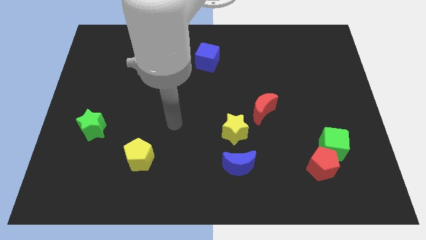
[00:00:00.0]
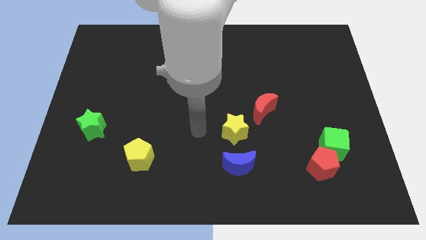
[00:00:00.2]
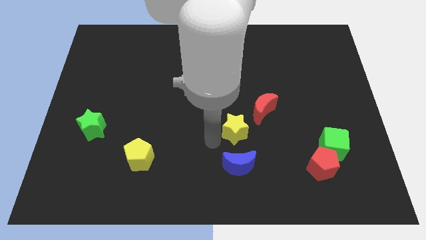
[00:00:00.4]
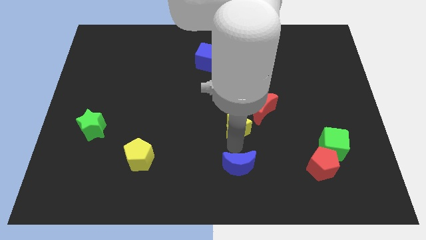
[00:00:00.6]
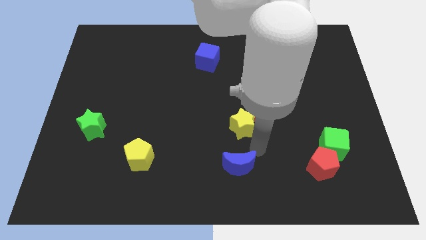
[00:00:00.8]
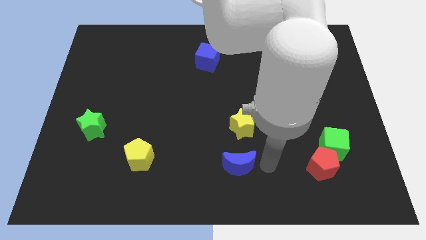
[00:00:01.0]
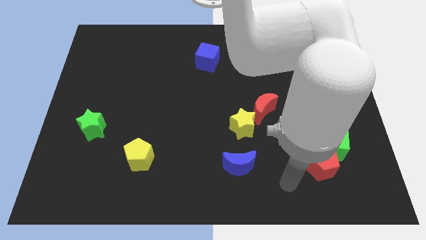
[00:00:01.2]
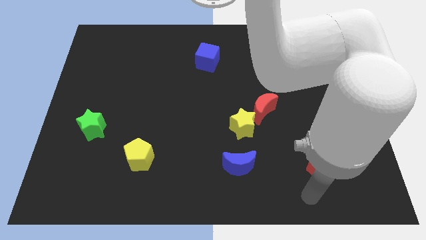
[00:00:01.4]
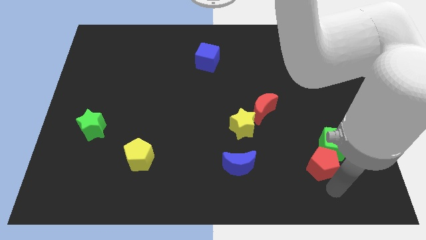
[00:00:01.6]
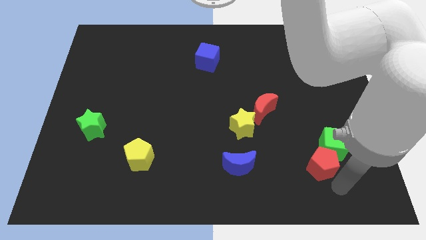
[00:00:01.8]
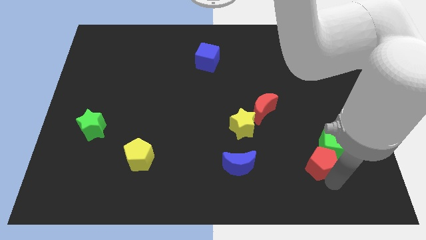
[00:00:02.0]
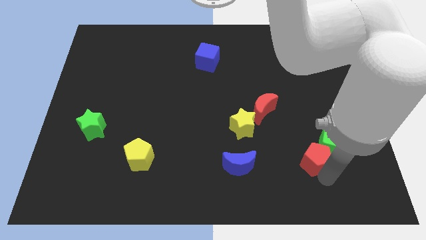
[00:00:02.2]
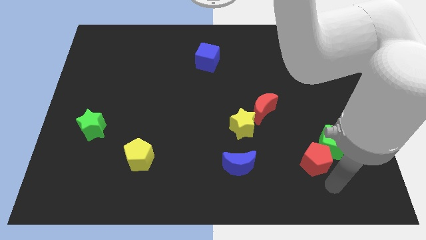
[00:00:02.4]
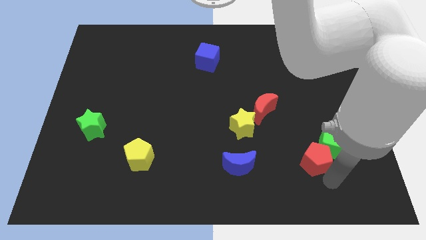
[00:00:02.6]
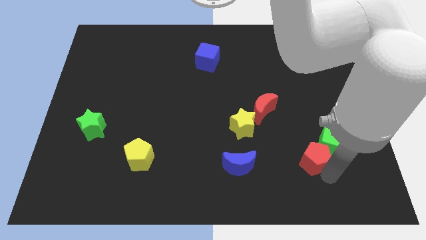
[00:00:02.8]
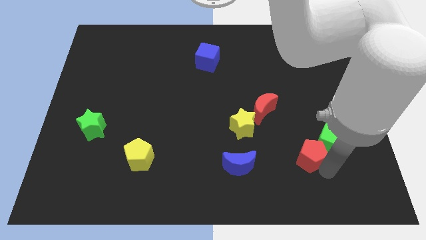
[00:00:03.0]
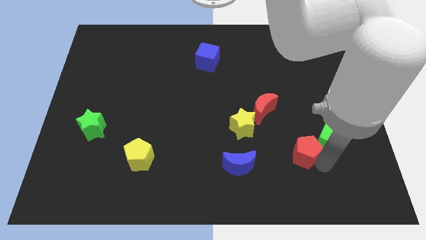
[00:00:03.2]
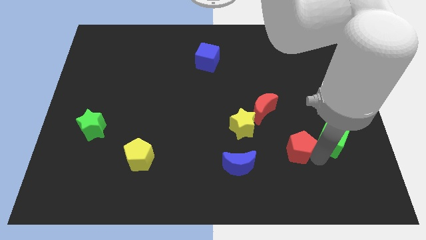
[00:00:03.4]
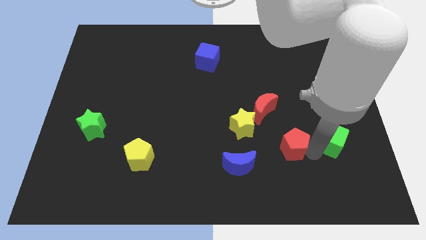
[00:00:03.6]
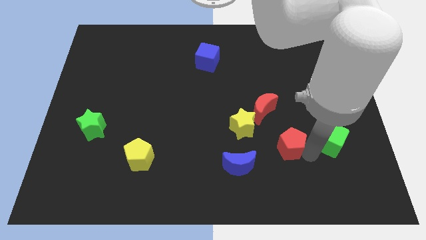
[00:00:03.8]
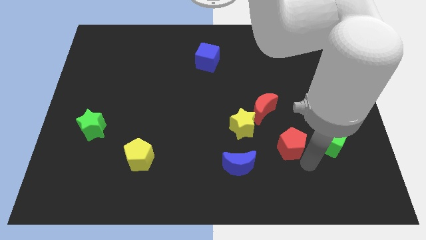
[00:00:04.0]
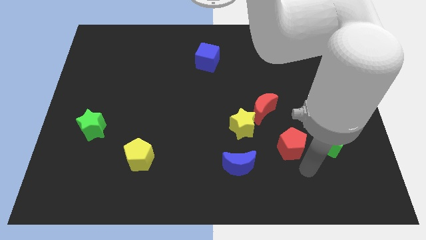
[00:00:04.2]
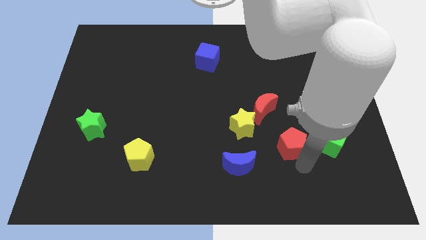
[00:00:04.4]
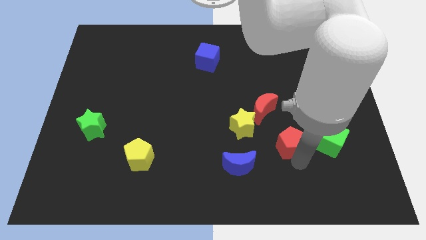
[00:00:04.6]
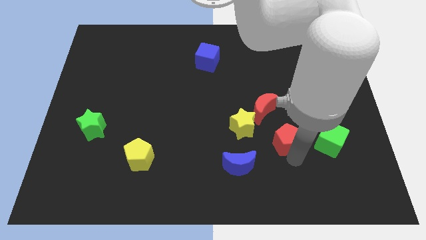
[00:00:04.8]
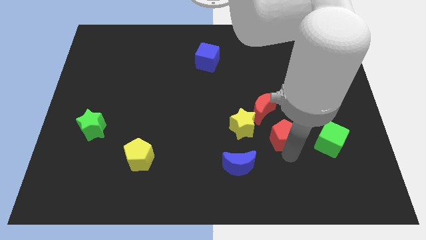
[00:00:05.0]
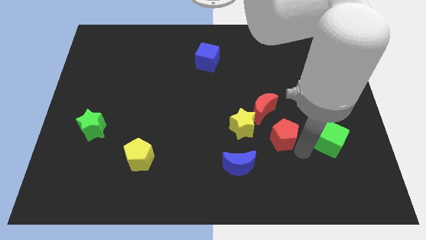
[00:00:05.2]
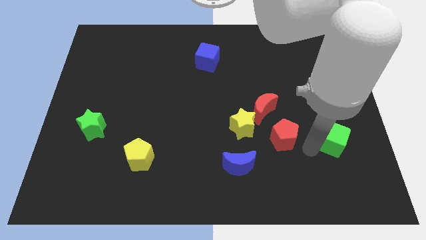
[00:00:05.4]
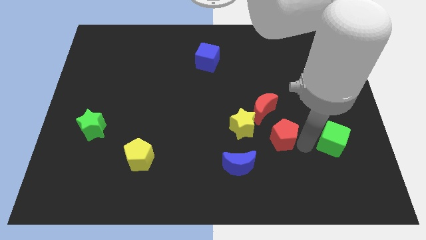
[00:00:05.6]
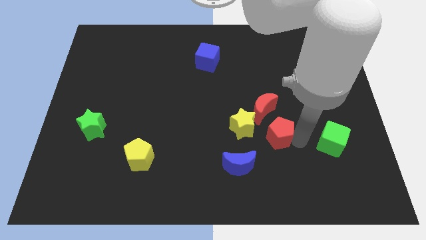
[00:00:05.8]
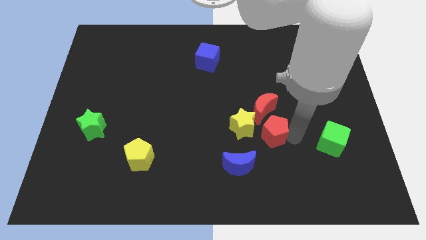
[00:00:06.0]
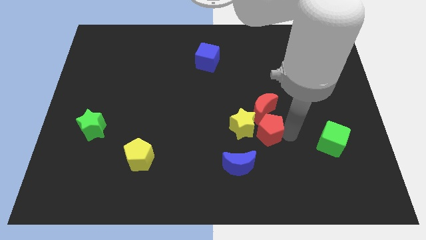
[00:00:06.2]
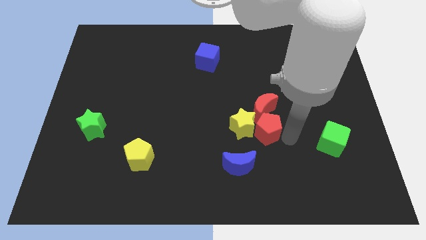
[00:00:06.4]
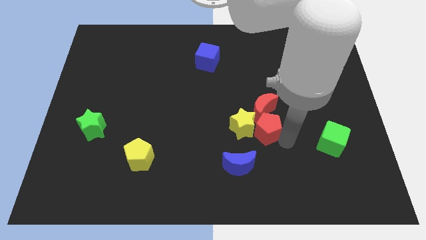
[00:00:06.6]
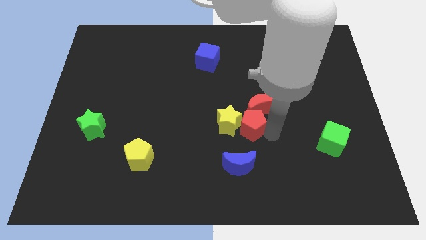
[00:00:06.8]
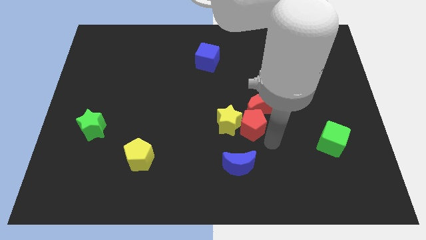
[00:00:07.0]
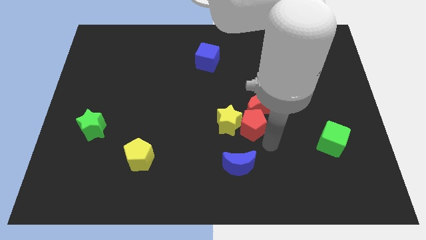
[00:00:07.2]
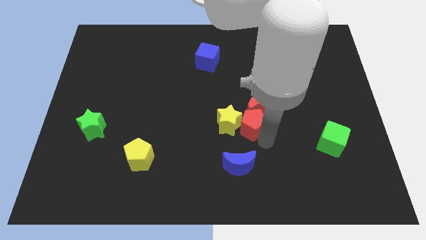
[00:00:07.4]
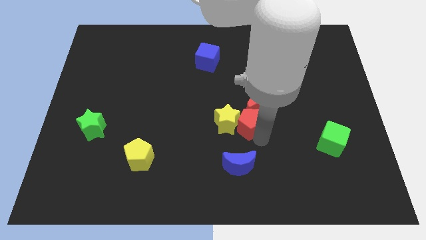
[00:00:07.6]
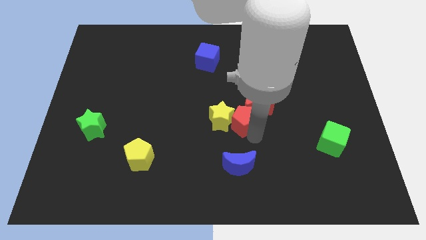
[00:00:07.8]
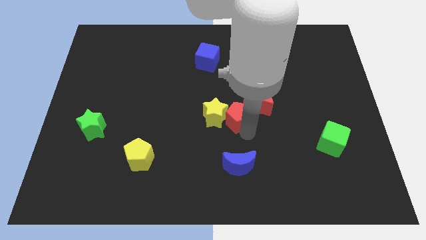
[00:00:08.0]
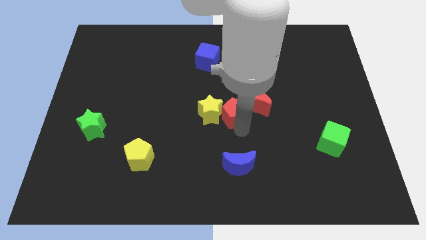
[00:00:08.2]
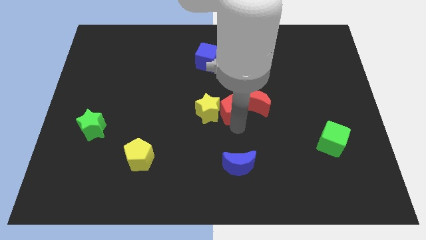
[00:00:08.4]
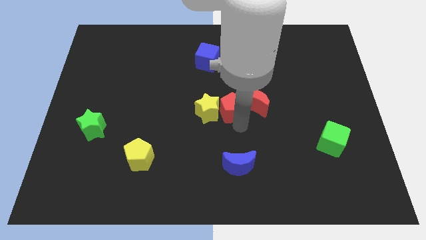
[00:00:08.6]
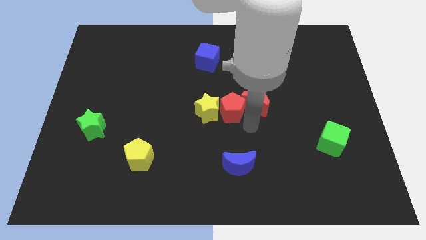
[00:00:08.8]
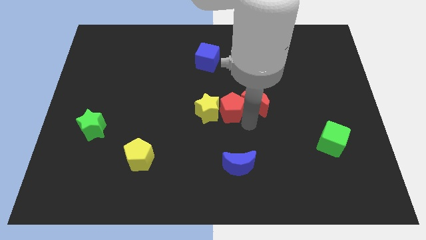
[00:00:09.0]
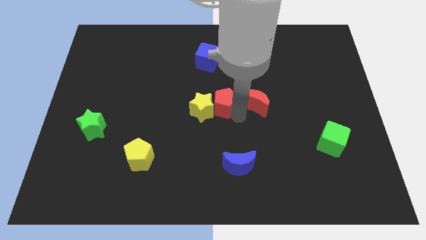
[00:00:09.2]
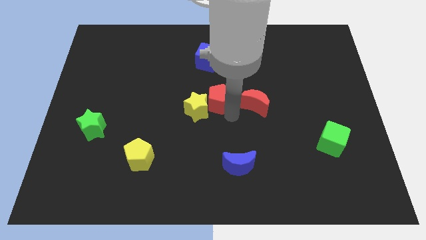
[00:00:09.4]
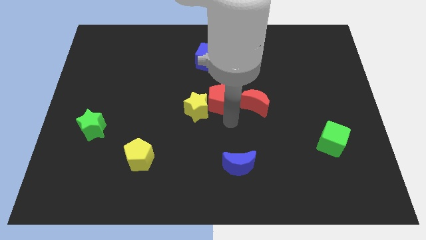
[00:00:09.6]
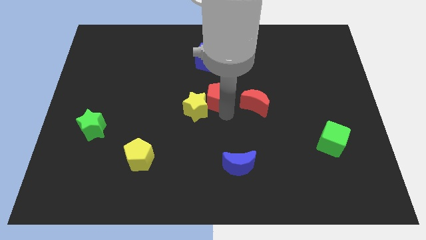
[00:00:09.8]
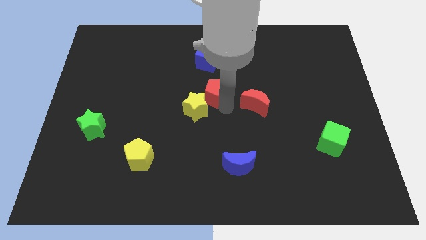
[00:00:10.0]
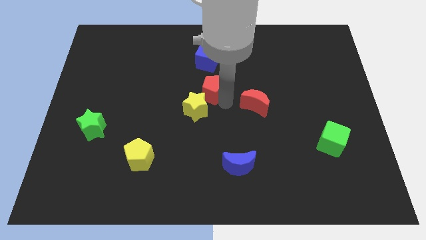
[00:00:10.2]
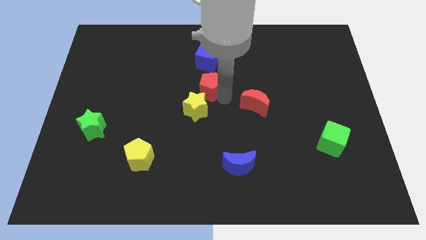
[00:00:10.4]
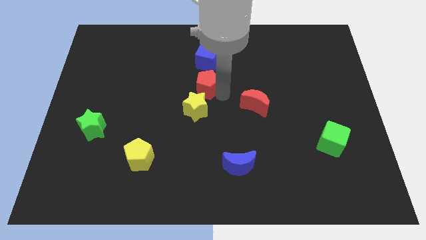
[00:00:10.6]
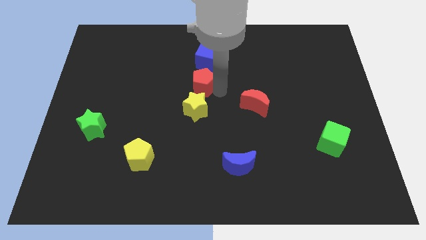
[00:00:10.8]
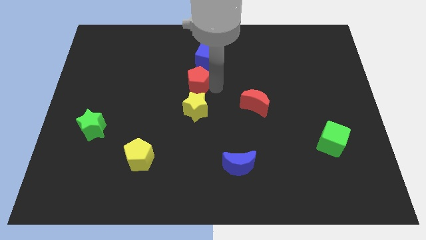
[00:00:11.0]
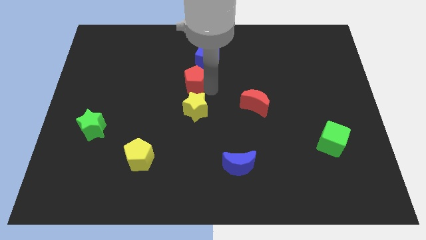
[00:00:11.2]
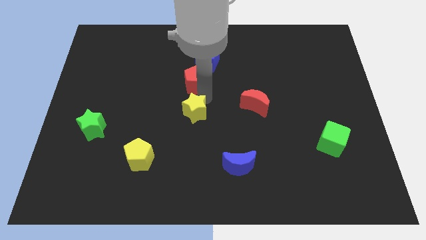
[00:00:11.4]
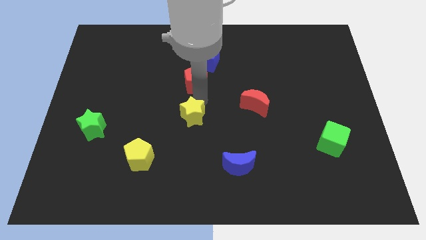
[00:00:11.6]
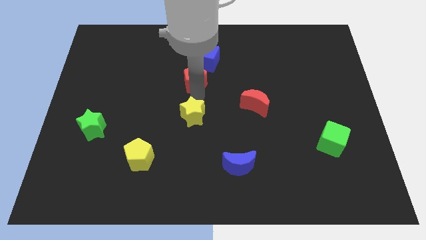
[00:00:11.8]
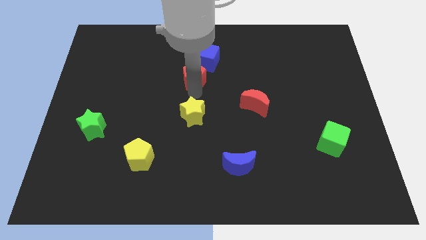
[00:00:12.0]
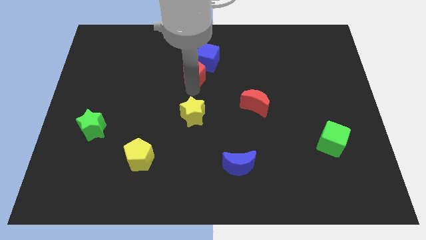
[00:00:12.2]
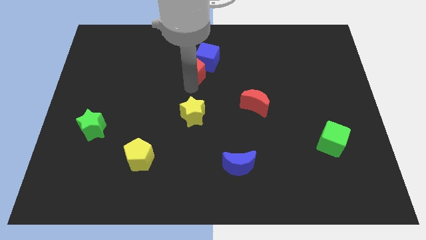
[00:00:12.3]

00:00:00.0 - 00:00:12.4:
push the red pentagon to the left of the blue cube

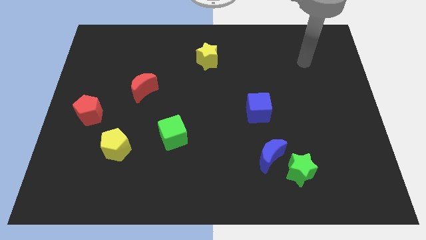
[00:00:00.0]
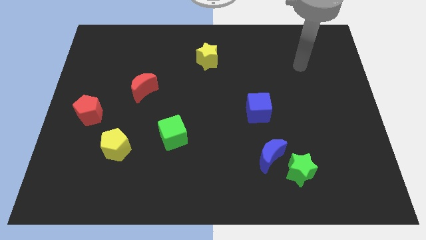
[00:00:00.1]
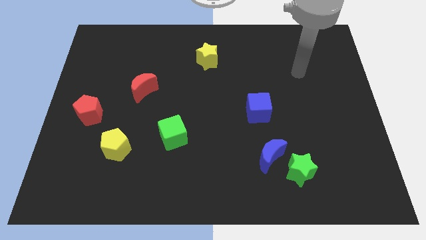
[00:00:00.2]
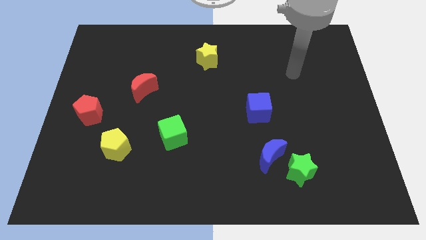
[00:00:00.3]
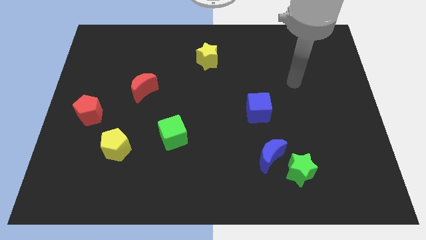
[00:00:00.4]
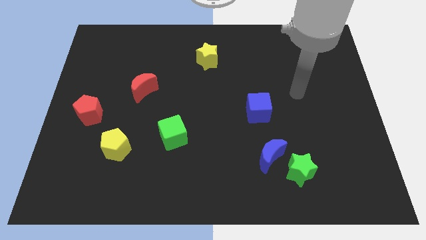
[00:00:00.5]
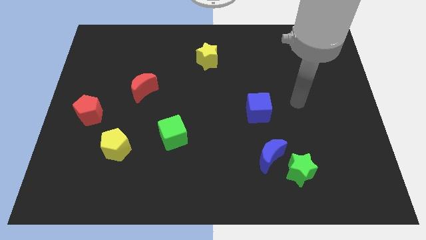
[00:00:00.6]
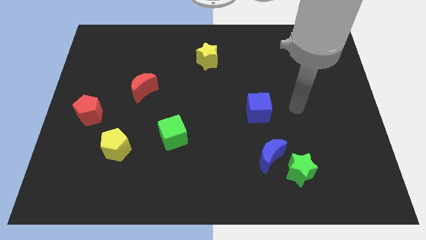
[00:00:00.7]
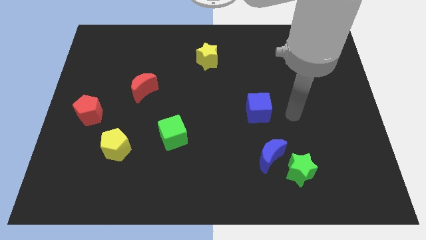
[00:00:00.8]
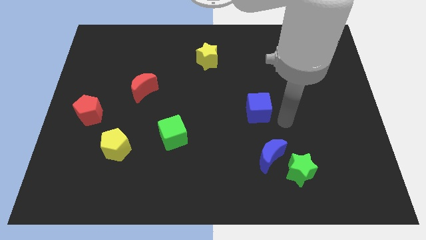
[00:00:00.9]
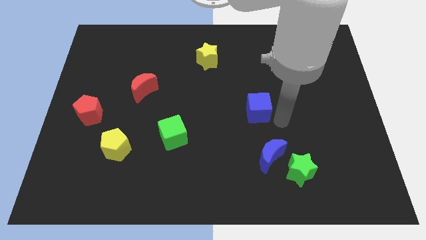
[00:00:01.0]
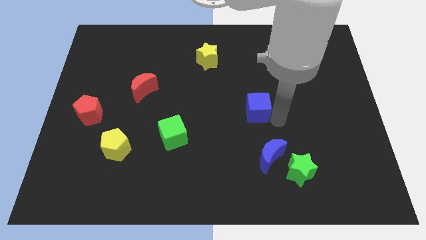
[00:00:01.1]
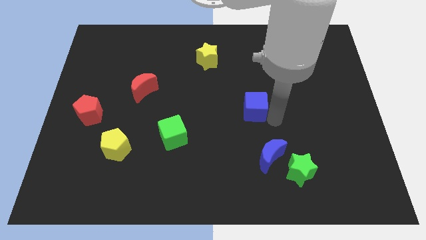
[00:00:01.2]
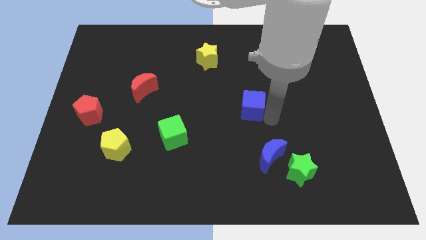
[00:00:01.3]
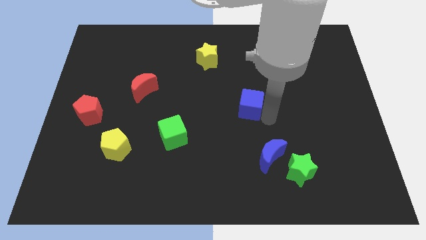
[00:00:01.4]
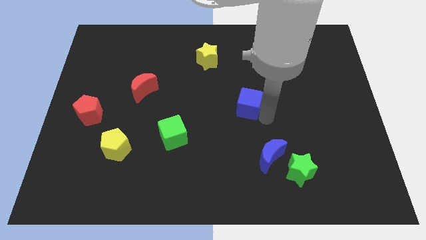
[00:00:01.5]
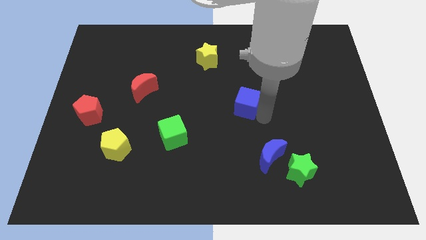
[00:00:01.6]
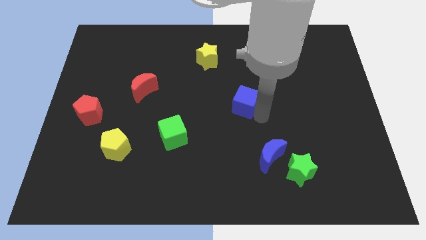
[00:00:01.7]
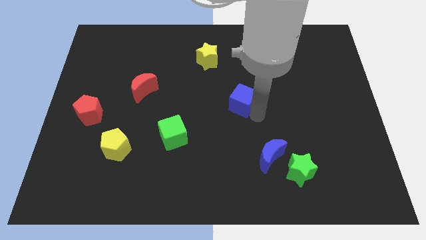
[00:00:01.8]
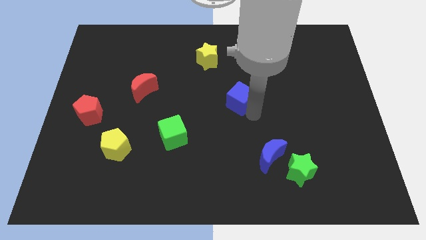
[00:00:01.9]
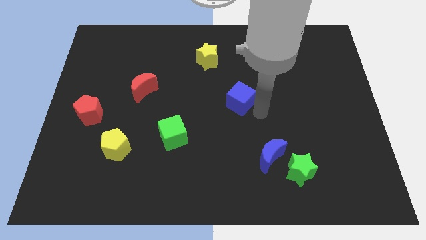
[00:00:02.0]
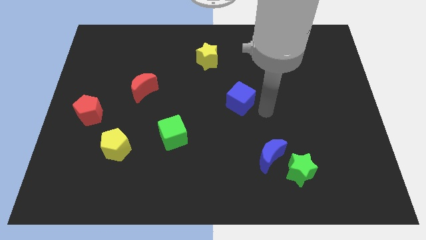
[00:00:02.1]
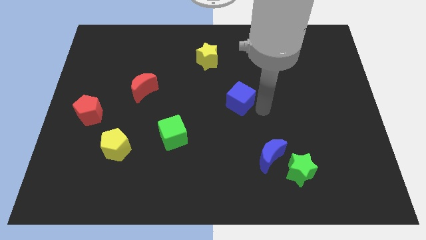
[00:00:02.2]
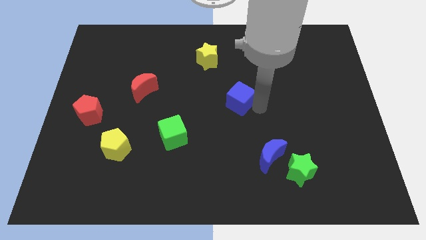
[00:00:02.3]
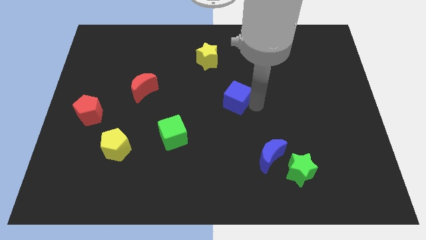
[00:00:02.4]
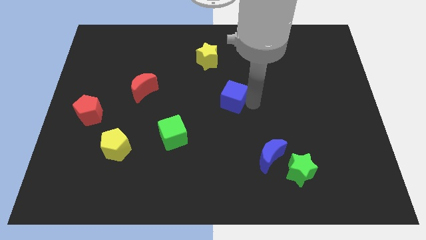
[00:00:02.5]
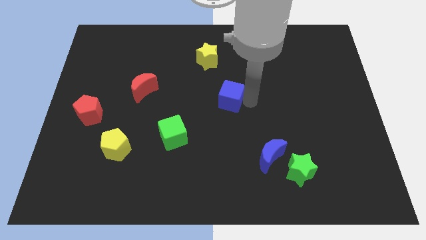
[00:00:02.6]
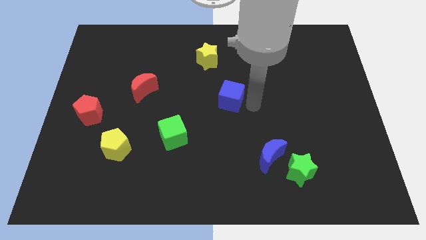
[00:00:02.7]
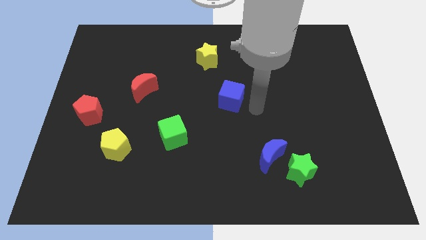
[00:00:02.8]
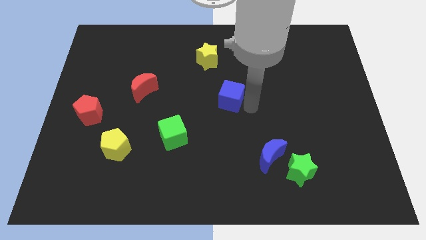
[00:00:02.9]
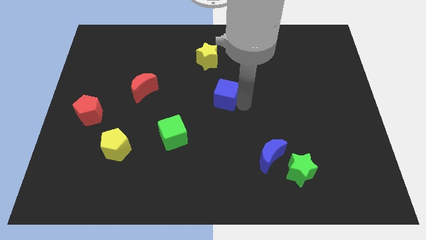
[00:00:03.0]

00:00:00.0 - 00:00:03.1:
put the blue cube to the bottom of the yellow star
